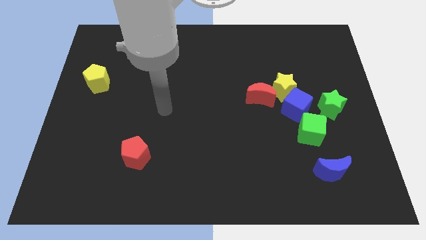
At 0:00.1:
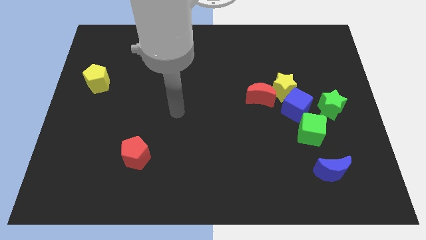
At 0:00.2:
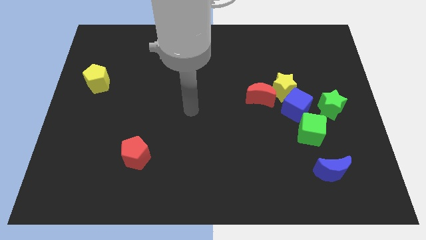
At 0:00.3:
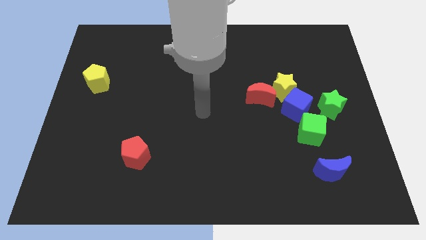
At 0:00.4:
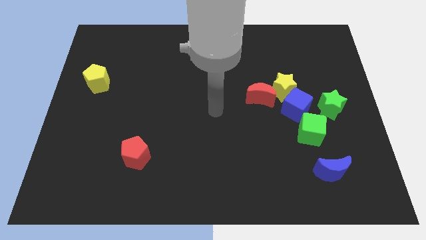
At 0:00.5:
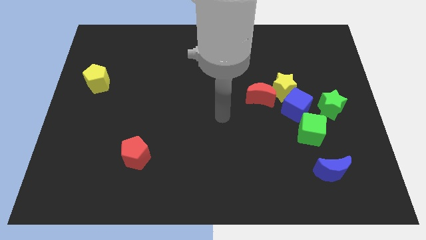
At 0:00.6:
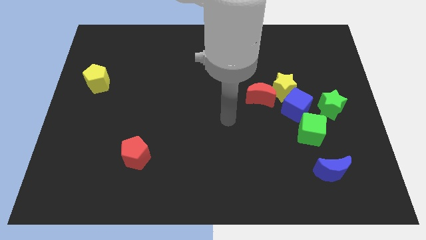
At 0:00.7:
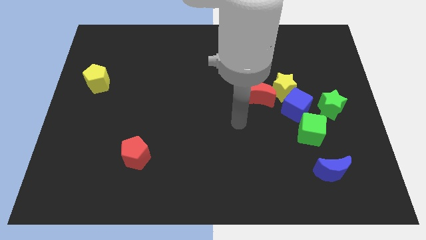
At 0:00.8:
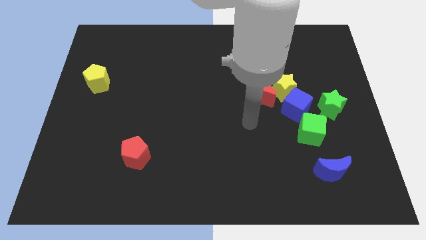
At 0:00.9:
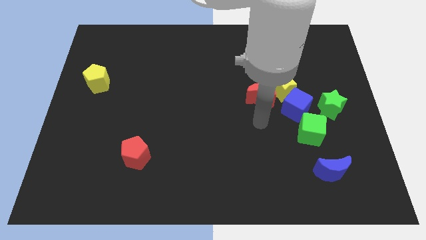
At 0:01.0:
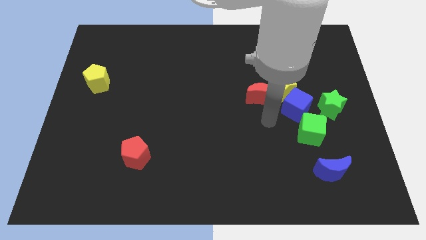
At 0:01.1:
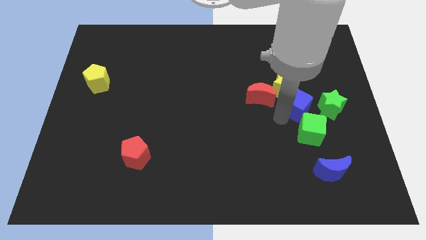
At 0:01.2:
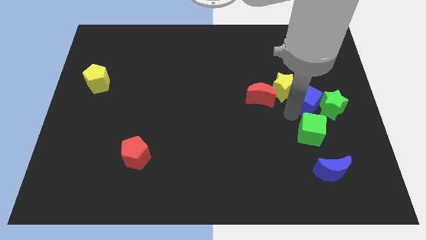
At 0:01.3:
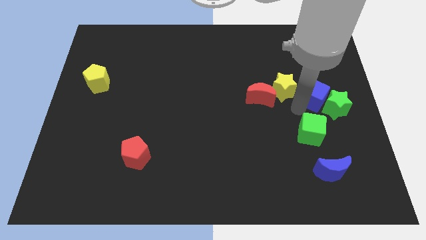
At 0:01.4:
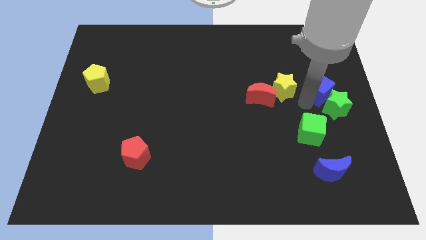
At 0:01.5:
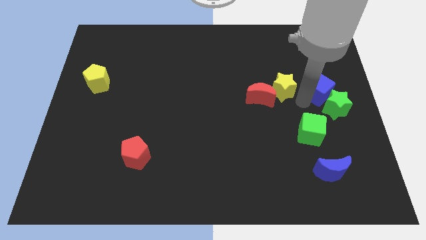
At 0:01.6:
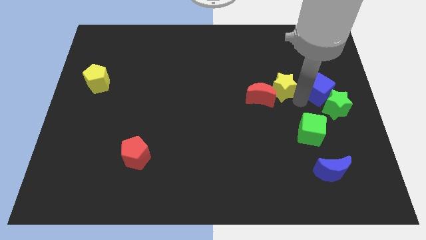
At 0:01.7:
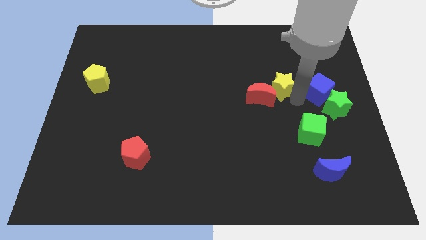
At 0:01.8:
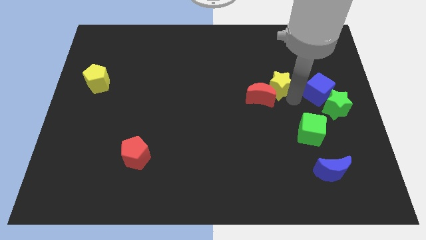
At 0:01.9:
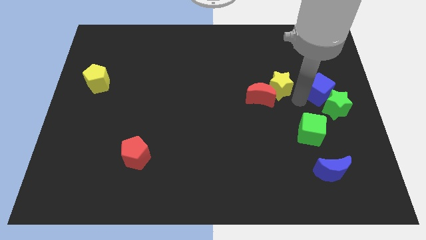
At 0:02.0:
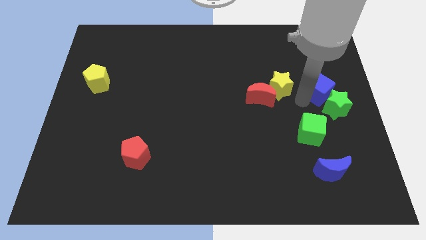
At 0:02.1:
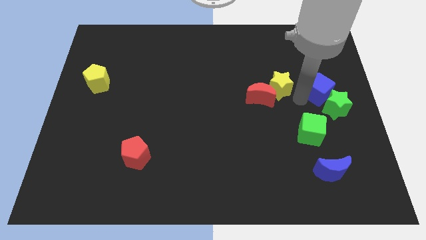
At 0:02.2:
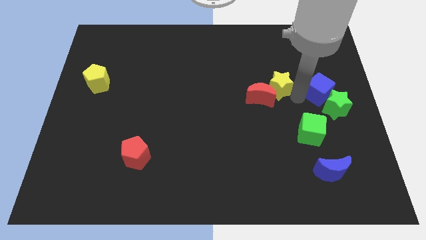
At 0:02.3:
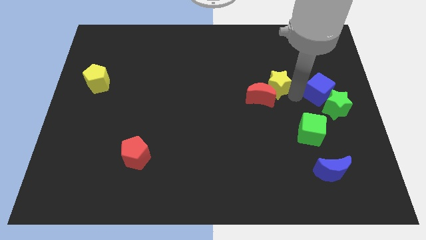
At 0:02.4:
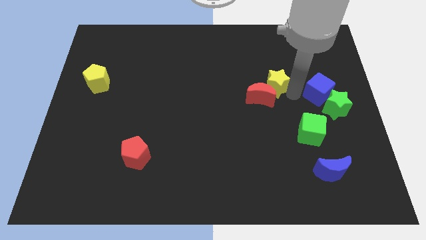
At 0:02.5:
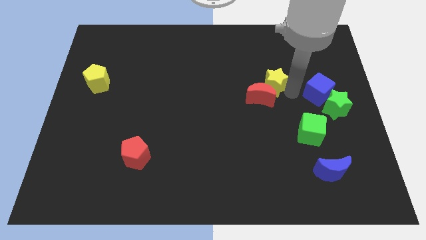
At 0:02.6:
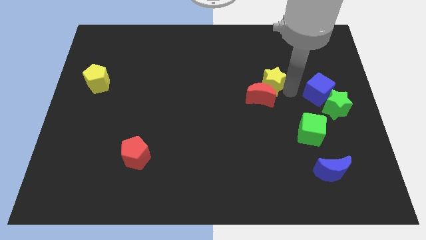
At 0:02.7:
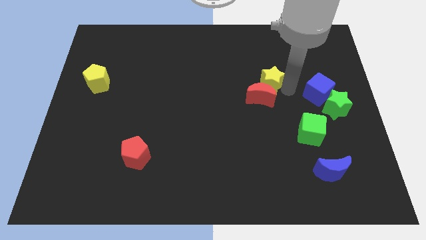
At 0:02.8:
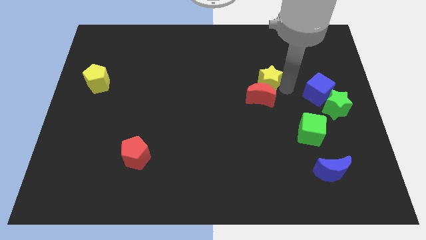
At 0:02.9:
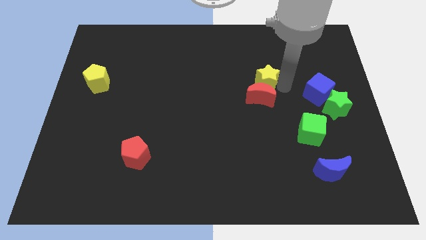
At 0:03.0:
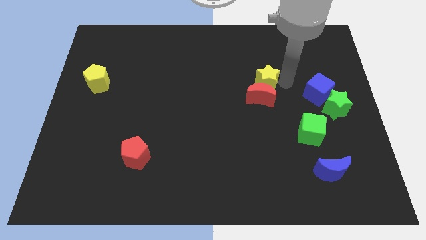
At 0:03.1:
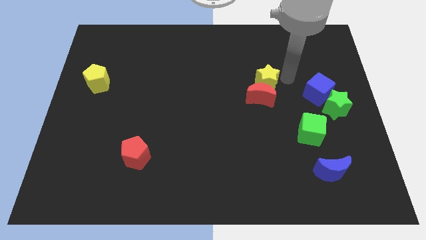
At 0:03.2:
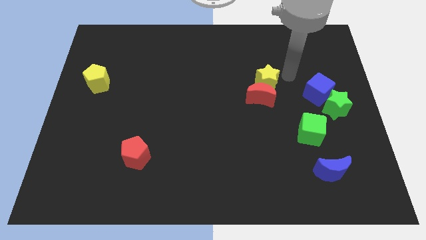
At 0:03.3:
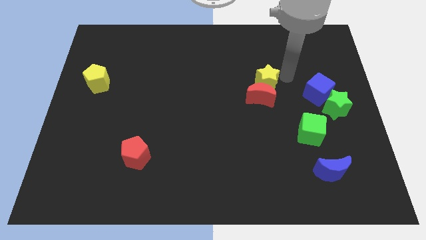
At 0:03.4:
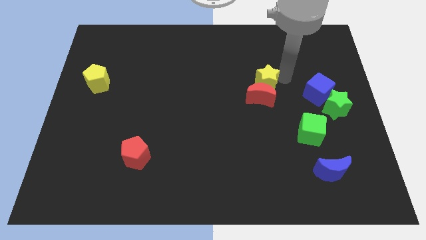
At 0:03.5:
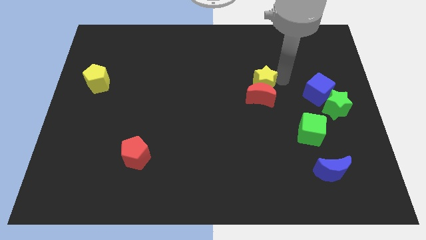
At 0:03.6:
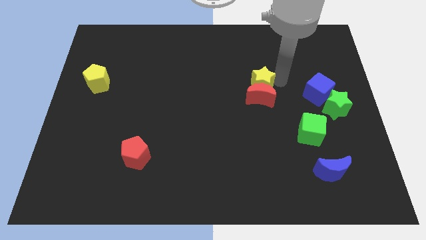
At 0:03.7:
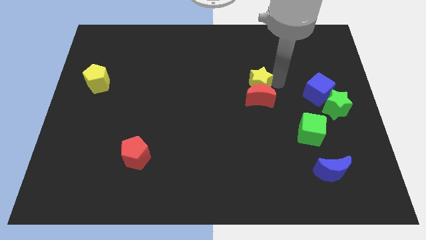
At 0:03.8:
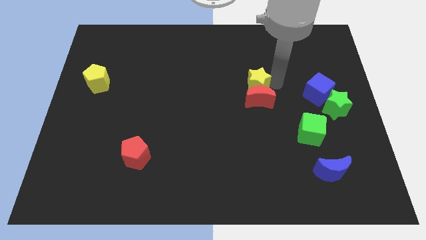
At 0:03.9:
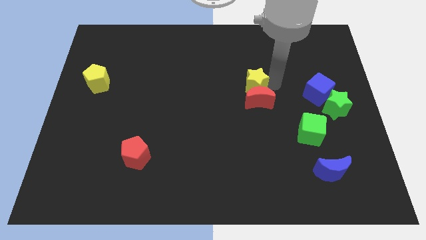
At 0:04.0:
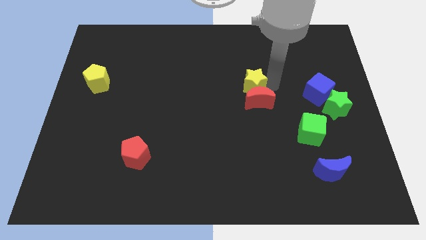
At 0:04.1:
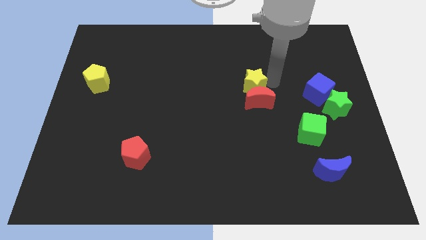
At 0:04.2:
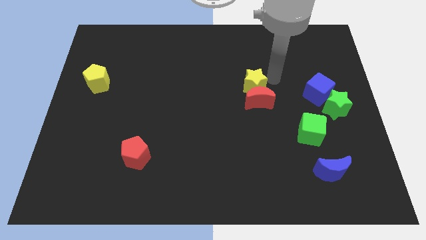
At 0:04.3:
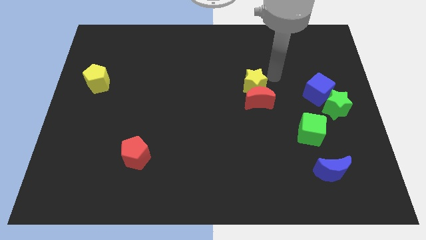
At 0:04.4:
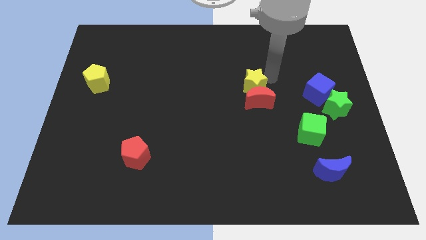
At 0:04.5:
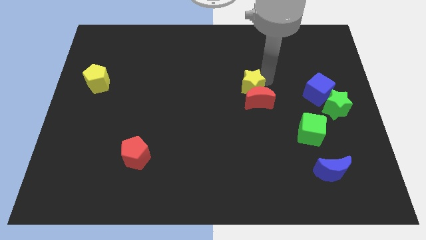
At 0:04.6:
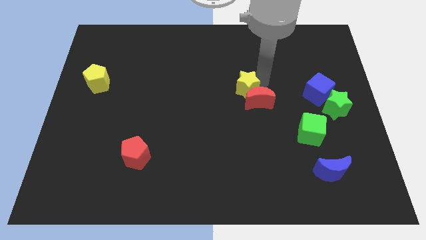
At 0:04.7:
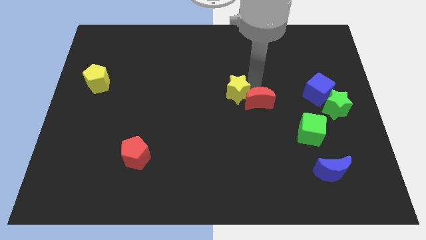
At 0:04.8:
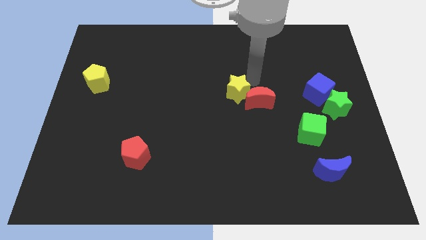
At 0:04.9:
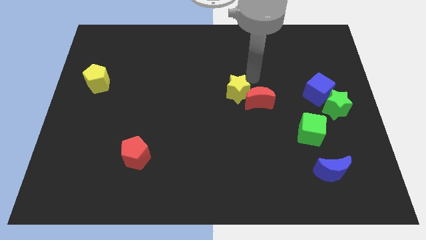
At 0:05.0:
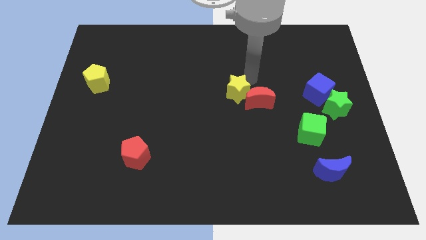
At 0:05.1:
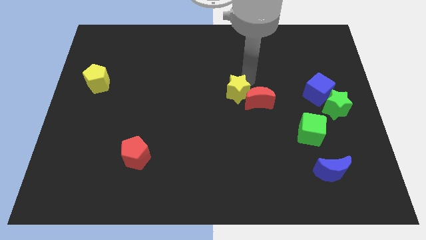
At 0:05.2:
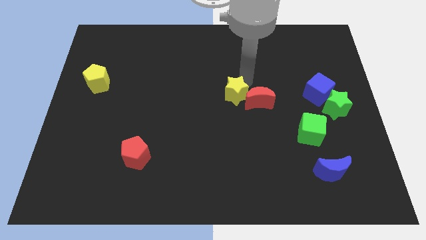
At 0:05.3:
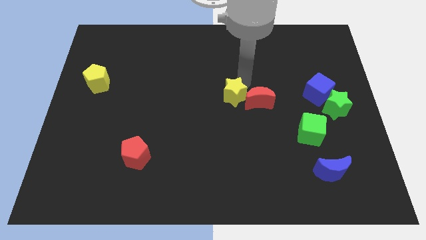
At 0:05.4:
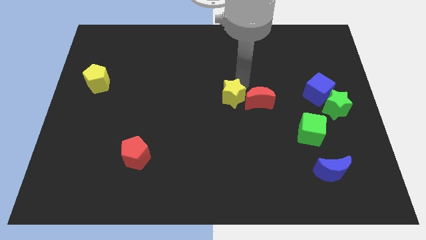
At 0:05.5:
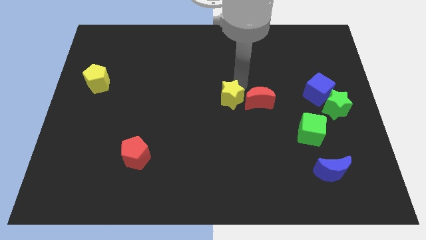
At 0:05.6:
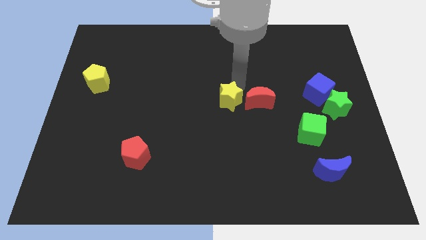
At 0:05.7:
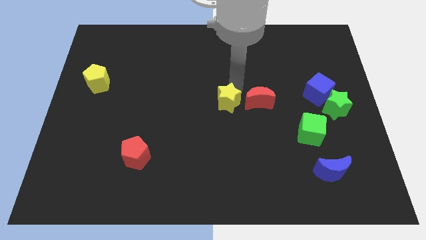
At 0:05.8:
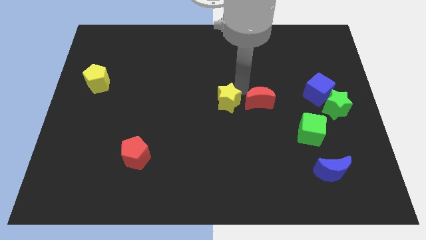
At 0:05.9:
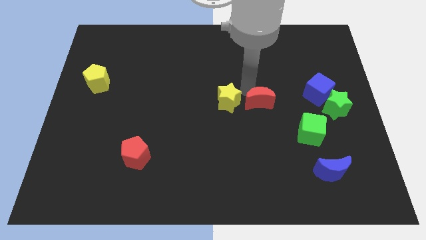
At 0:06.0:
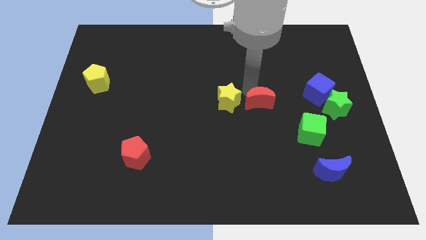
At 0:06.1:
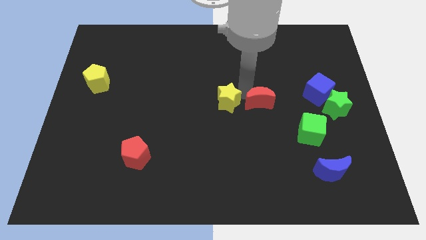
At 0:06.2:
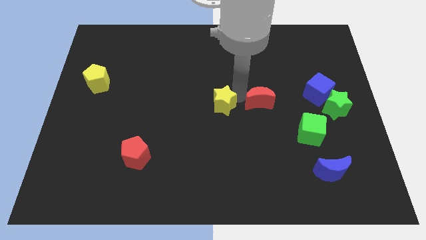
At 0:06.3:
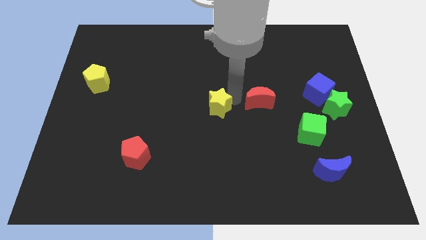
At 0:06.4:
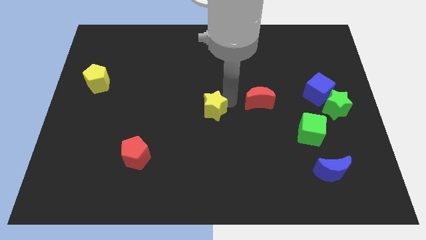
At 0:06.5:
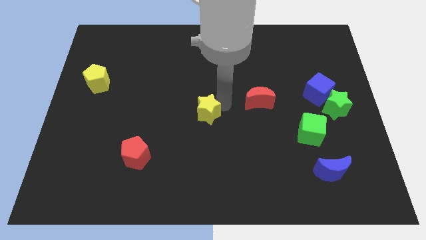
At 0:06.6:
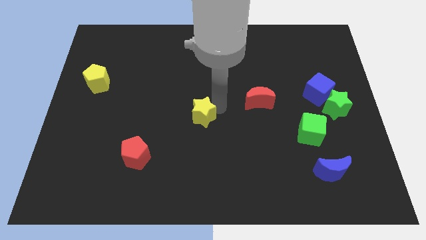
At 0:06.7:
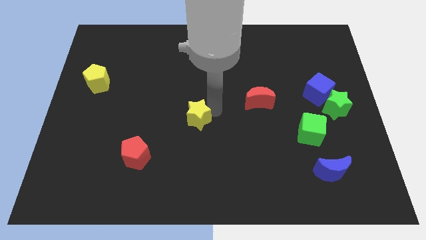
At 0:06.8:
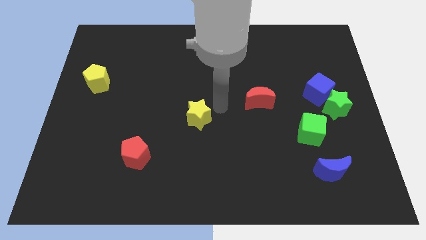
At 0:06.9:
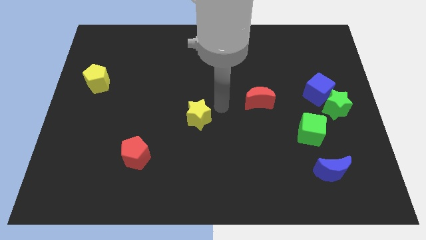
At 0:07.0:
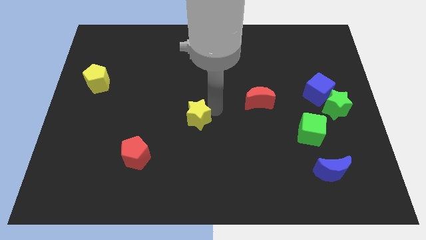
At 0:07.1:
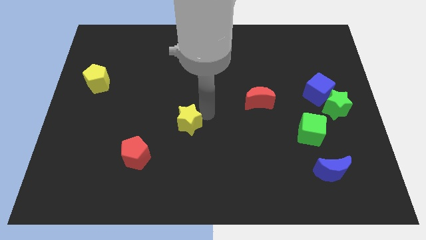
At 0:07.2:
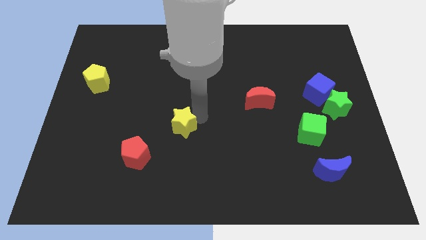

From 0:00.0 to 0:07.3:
put the yellow star to the top right of the red pentagon
